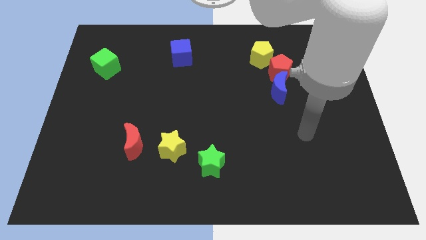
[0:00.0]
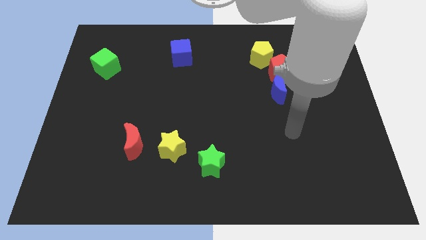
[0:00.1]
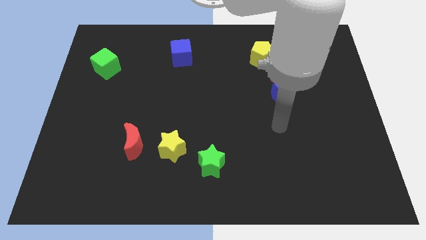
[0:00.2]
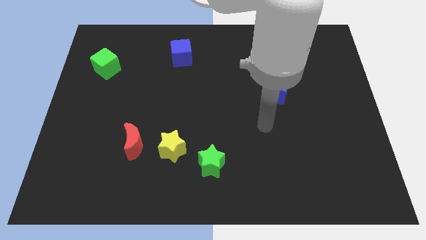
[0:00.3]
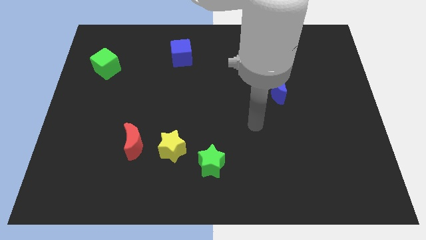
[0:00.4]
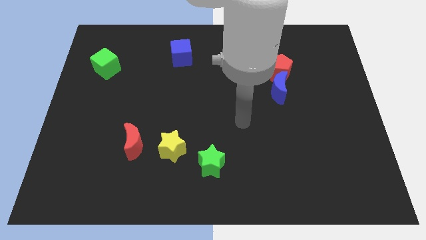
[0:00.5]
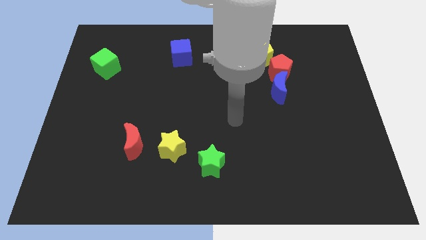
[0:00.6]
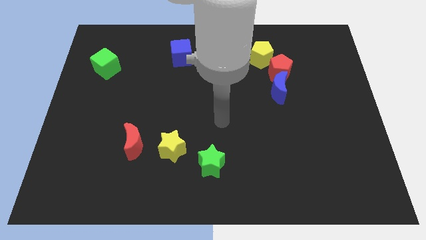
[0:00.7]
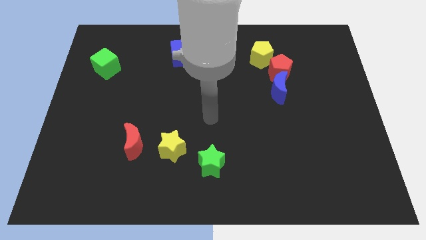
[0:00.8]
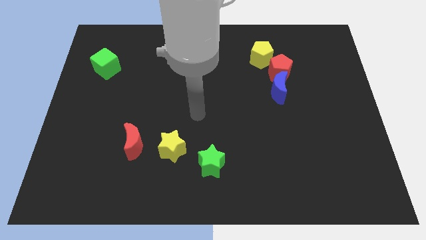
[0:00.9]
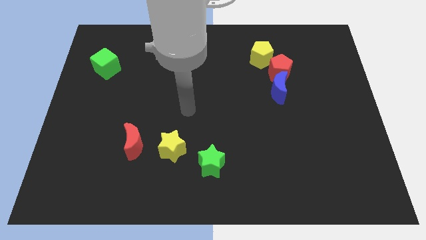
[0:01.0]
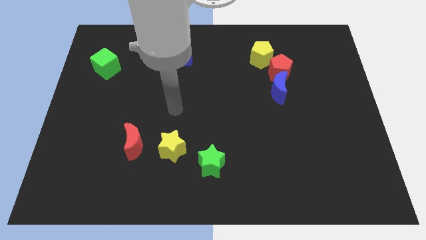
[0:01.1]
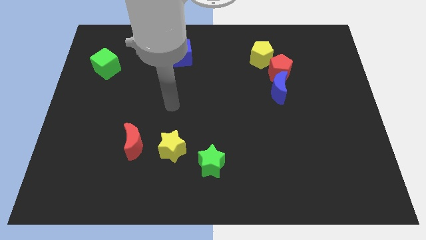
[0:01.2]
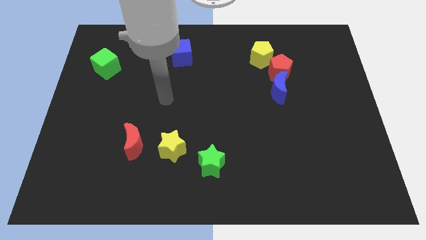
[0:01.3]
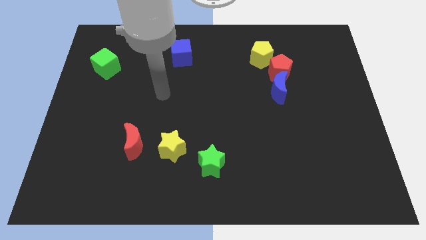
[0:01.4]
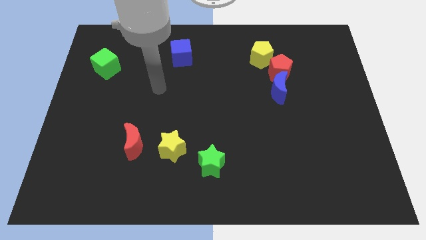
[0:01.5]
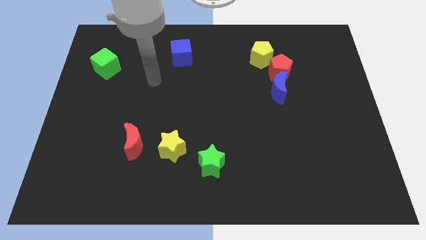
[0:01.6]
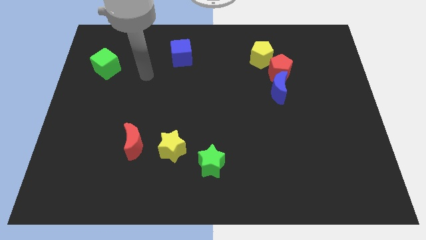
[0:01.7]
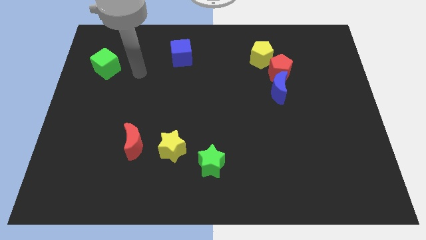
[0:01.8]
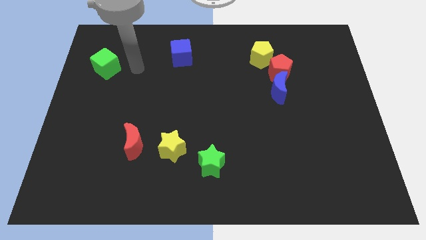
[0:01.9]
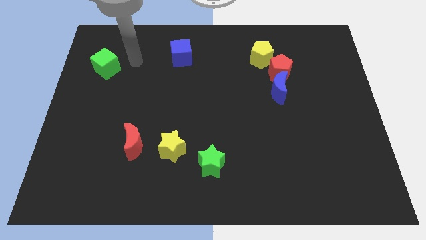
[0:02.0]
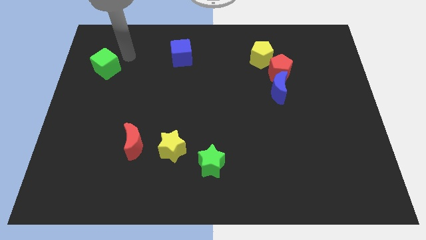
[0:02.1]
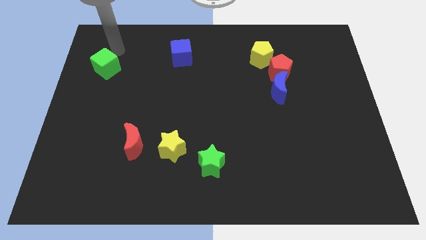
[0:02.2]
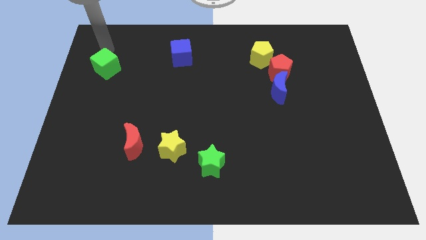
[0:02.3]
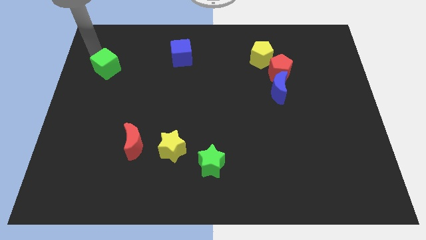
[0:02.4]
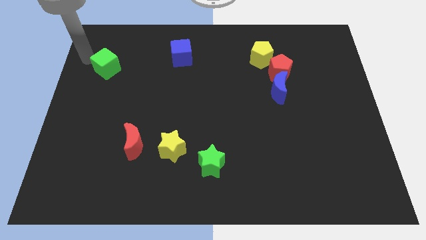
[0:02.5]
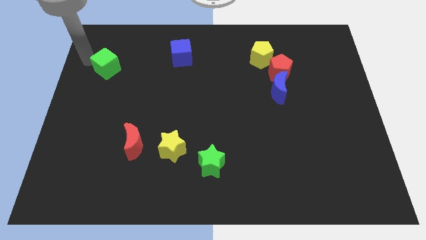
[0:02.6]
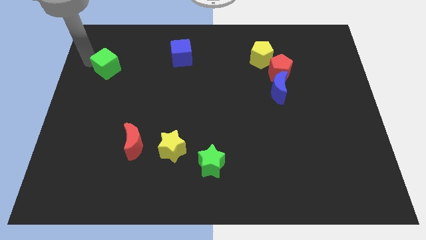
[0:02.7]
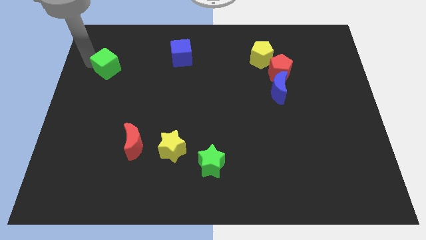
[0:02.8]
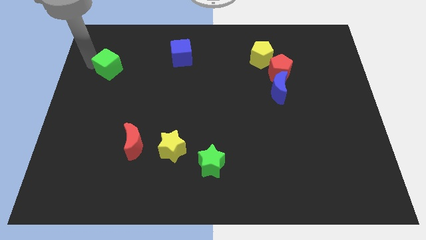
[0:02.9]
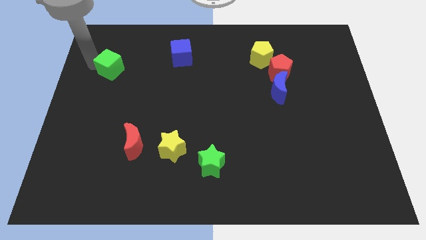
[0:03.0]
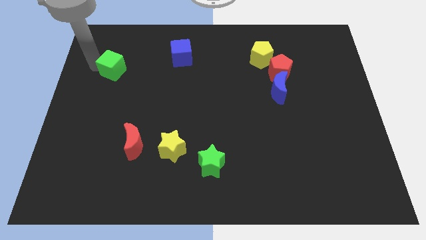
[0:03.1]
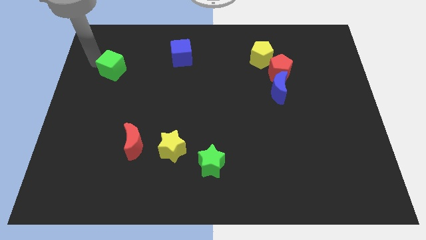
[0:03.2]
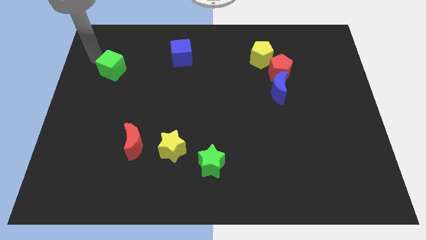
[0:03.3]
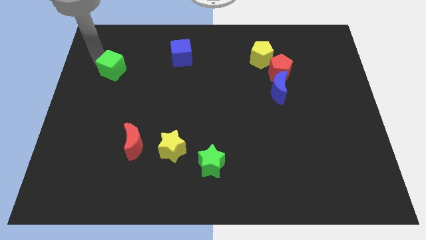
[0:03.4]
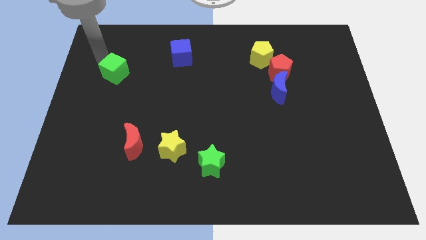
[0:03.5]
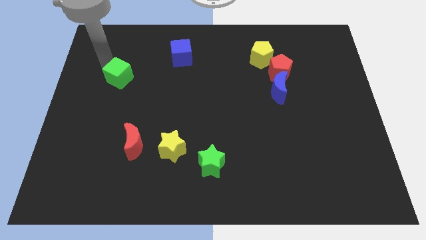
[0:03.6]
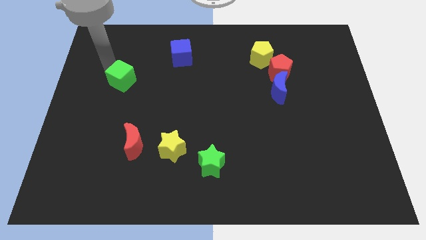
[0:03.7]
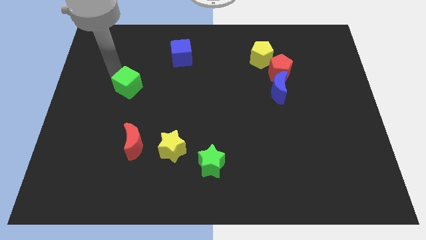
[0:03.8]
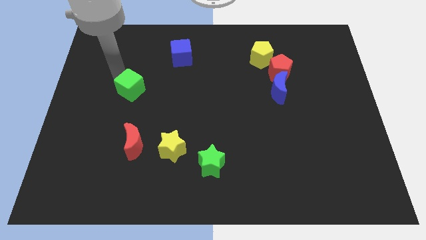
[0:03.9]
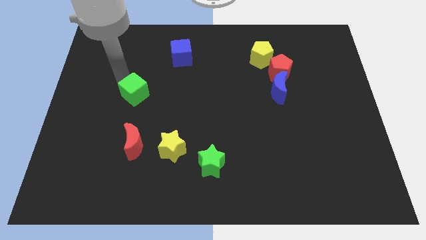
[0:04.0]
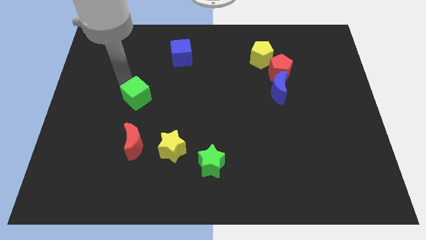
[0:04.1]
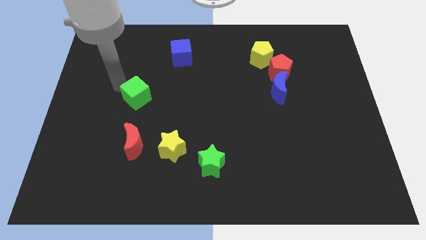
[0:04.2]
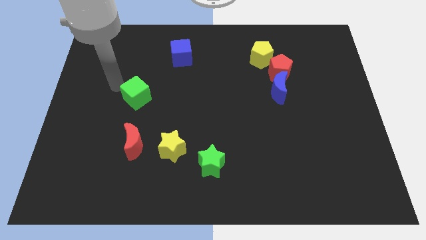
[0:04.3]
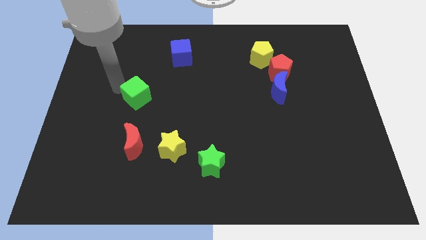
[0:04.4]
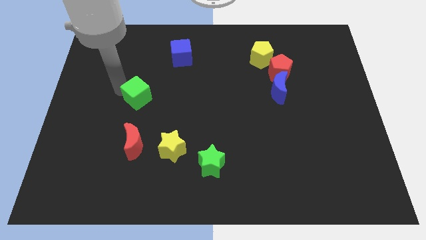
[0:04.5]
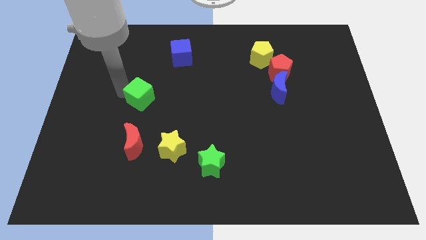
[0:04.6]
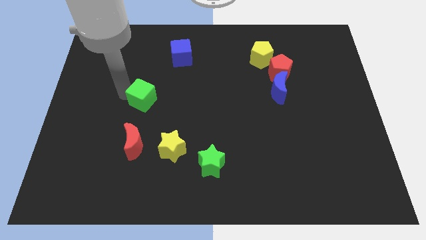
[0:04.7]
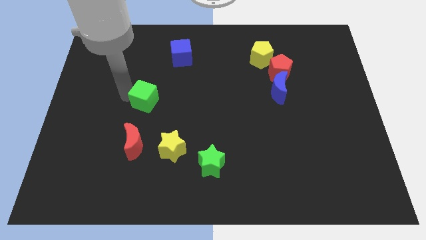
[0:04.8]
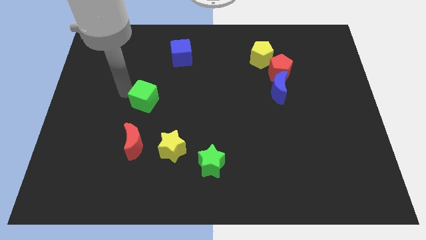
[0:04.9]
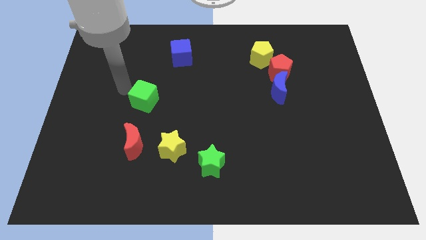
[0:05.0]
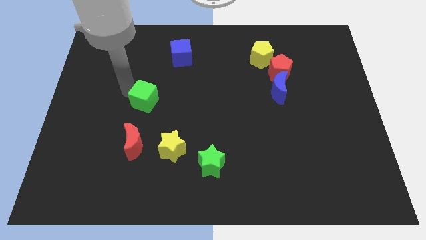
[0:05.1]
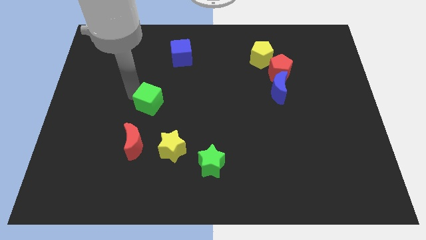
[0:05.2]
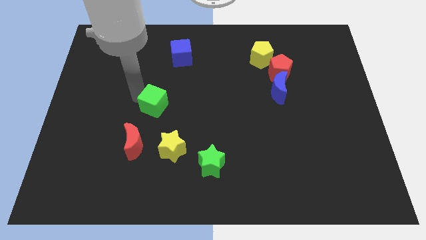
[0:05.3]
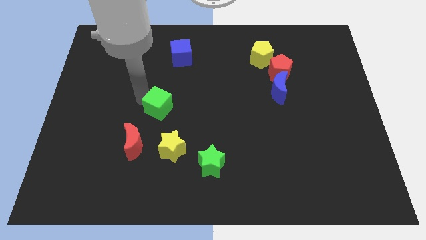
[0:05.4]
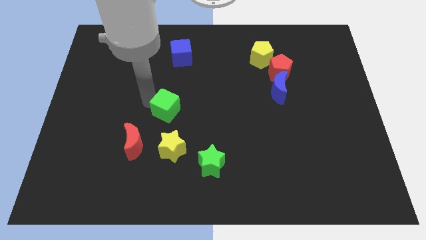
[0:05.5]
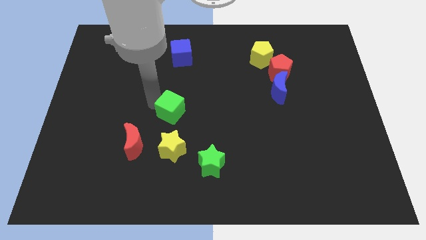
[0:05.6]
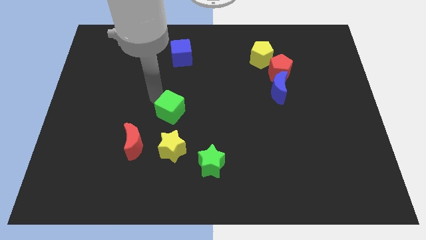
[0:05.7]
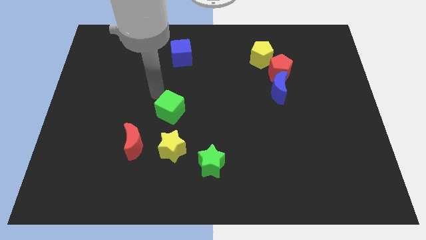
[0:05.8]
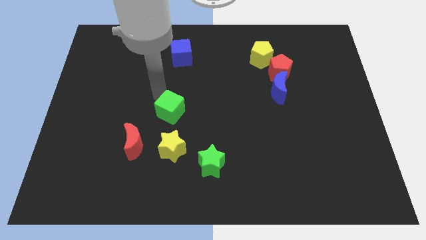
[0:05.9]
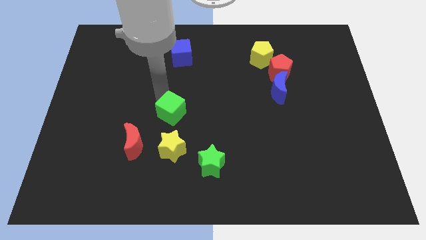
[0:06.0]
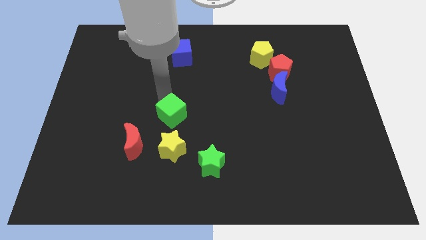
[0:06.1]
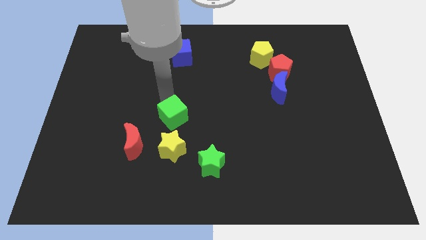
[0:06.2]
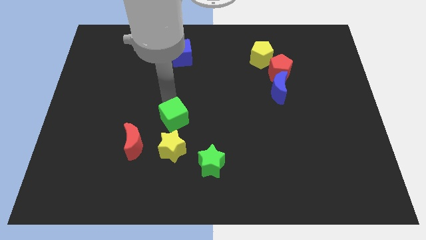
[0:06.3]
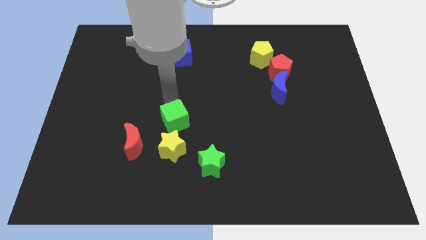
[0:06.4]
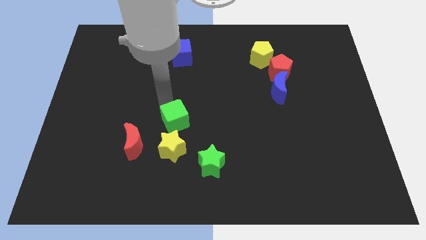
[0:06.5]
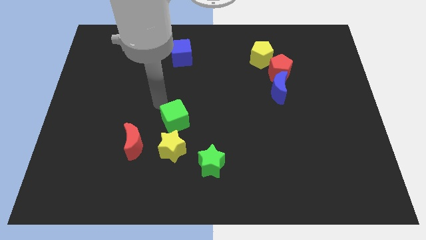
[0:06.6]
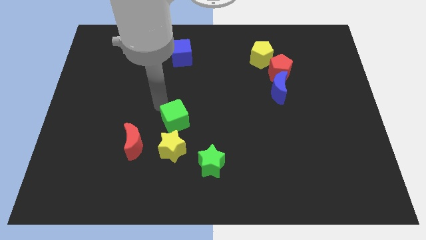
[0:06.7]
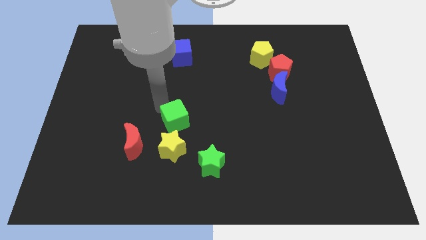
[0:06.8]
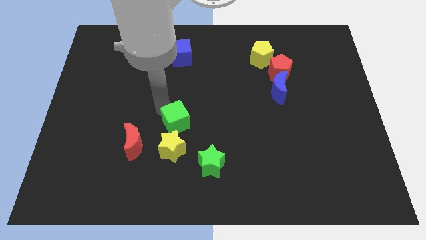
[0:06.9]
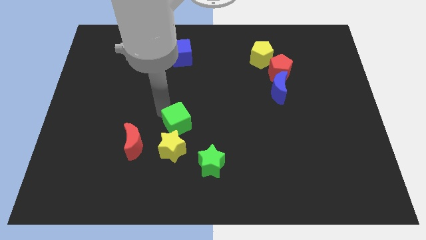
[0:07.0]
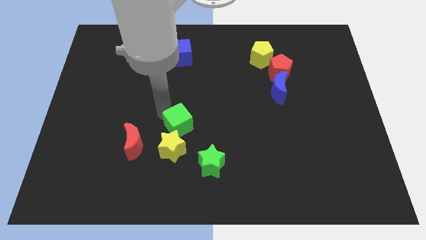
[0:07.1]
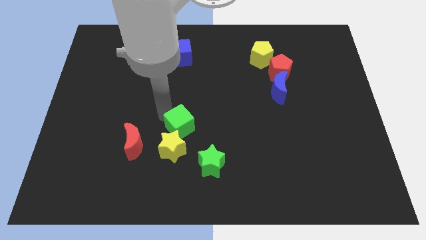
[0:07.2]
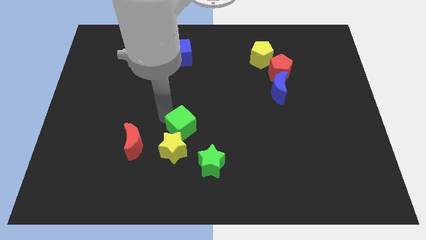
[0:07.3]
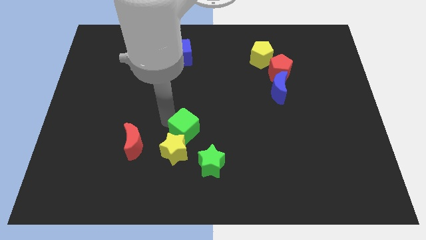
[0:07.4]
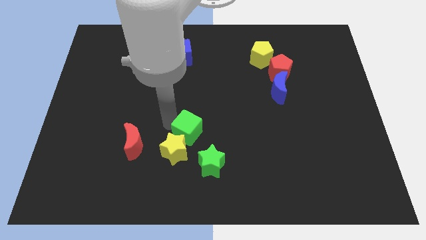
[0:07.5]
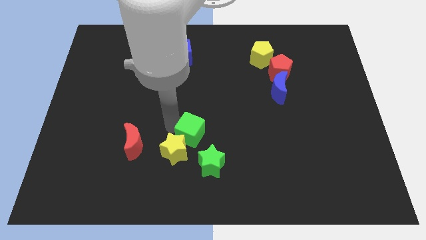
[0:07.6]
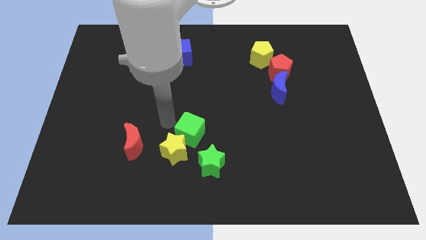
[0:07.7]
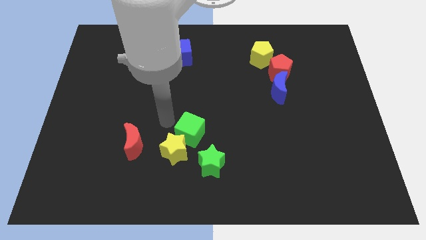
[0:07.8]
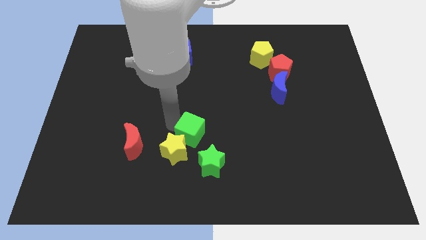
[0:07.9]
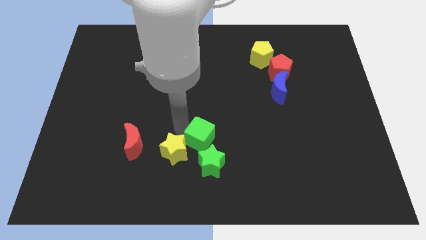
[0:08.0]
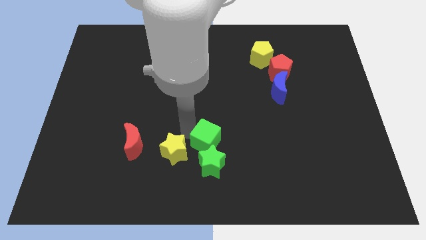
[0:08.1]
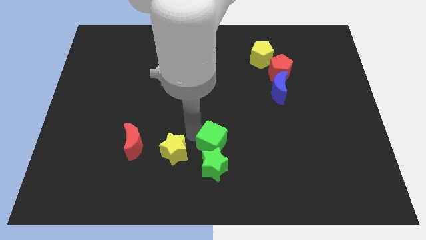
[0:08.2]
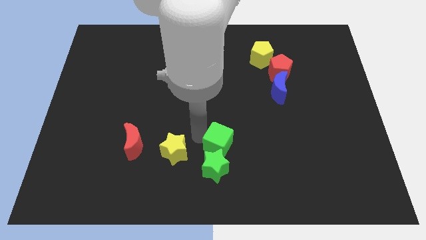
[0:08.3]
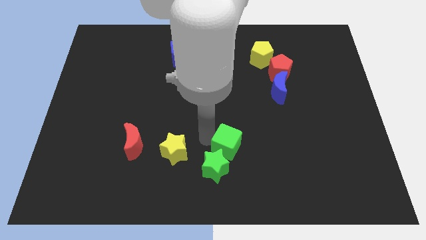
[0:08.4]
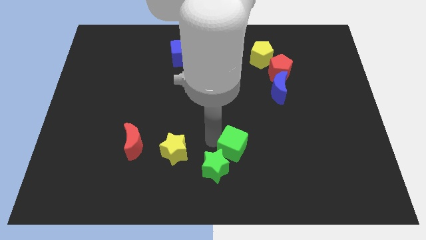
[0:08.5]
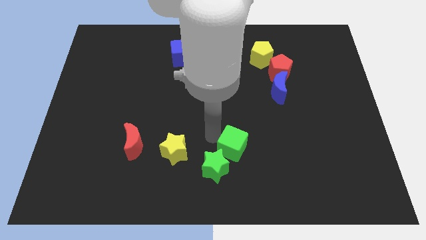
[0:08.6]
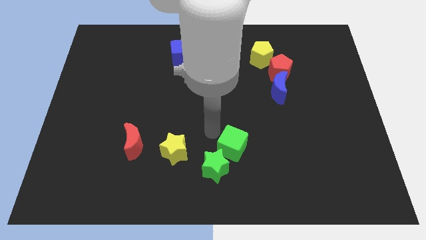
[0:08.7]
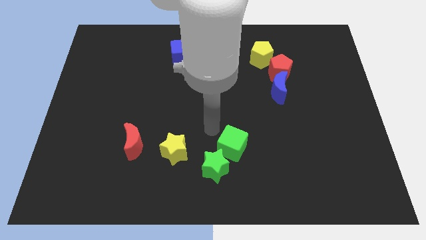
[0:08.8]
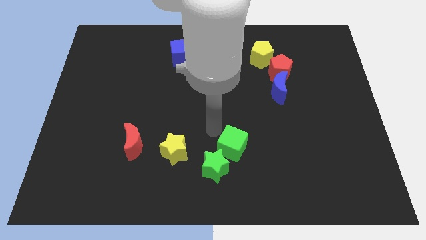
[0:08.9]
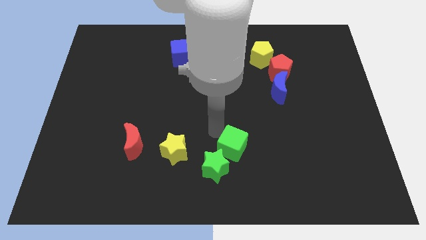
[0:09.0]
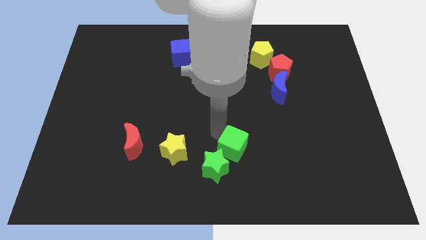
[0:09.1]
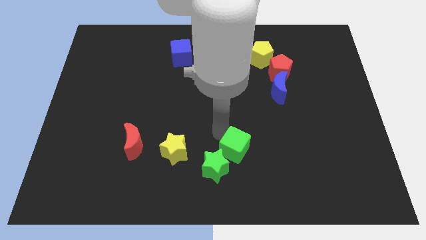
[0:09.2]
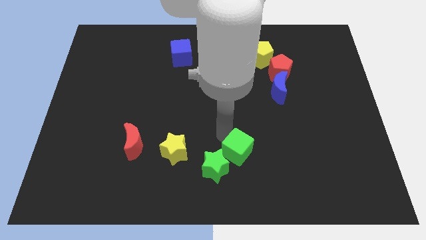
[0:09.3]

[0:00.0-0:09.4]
push the green cube just right of the green star
